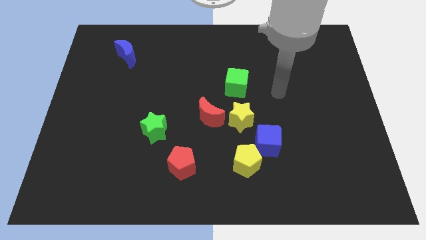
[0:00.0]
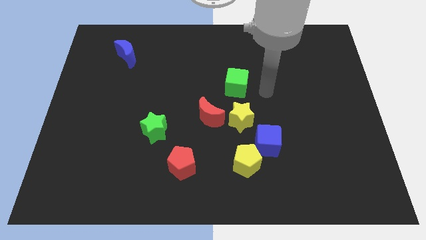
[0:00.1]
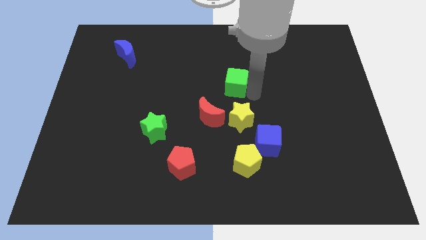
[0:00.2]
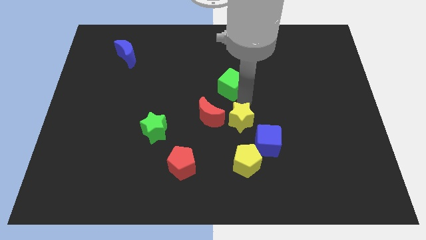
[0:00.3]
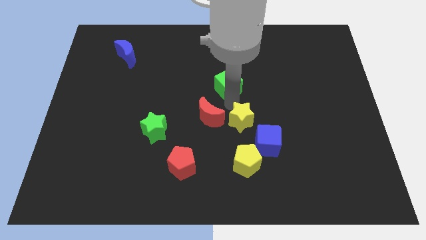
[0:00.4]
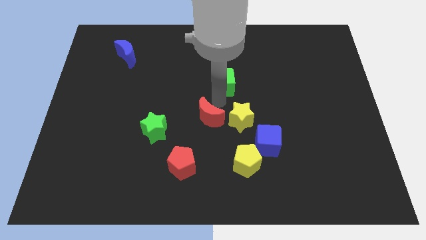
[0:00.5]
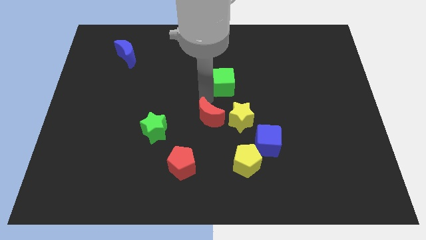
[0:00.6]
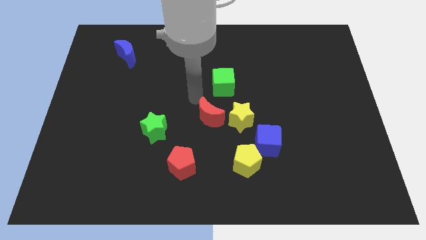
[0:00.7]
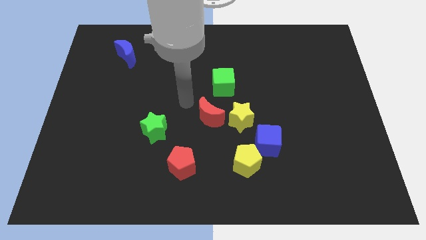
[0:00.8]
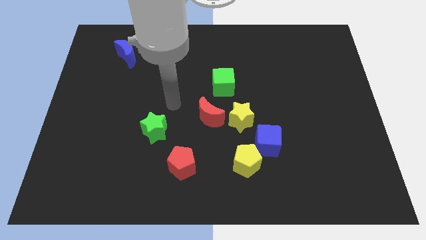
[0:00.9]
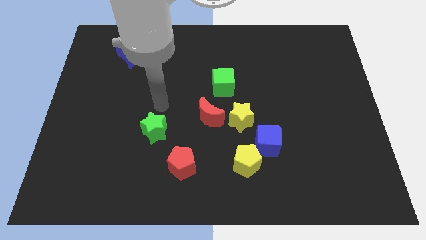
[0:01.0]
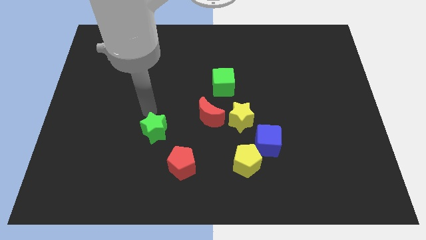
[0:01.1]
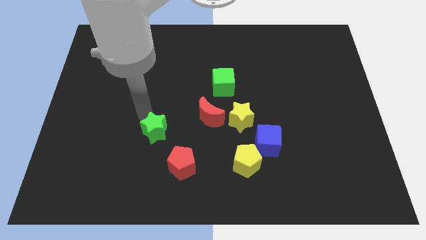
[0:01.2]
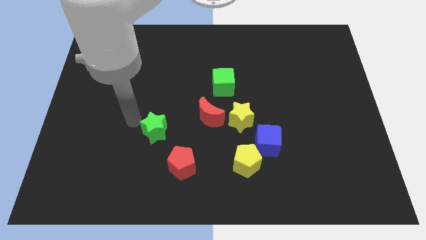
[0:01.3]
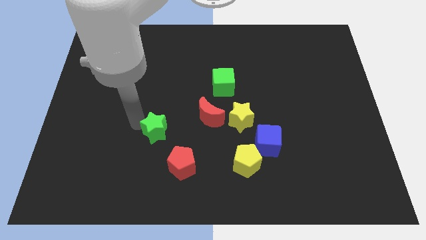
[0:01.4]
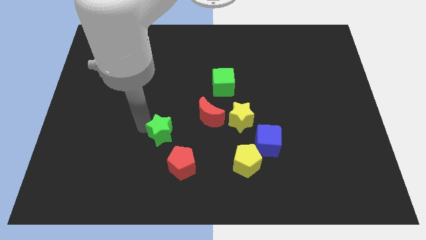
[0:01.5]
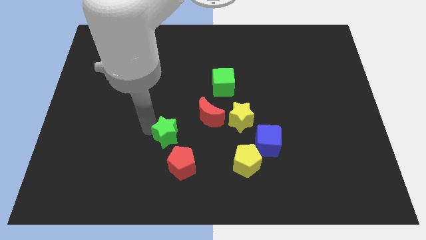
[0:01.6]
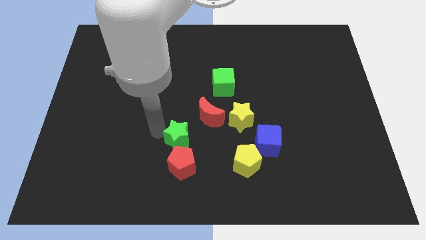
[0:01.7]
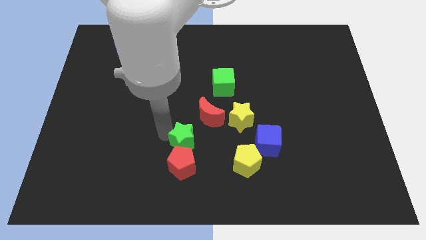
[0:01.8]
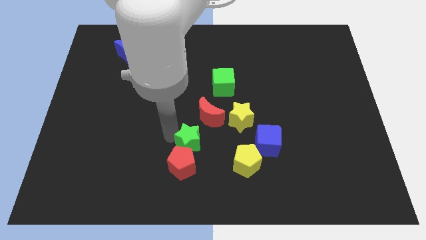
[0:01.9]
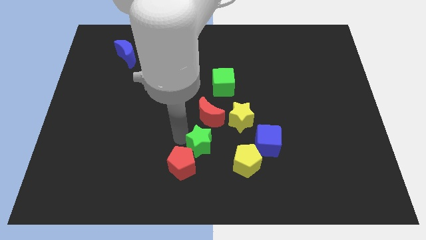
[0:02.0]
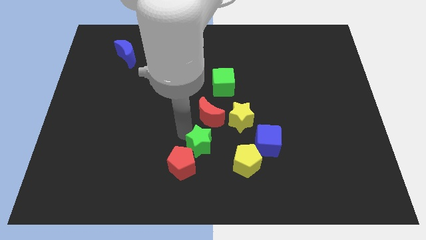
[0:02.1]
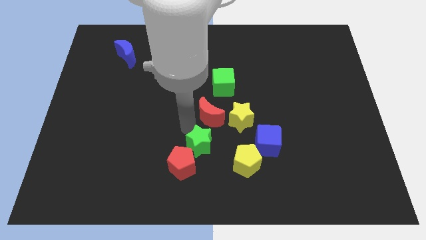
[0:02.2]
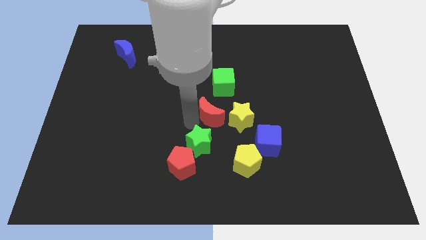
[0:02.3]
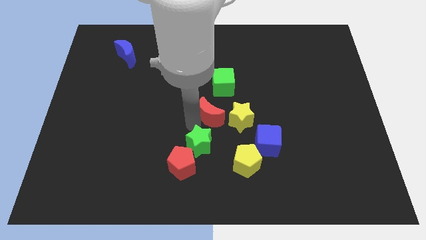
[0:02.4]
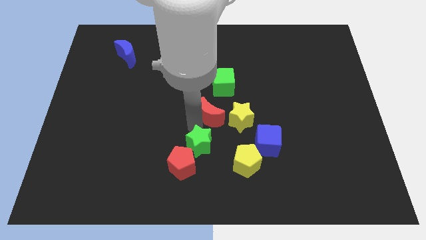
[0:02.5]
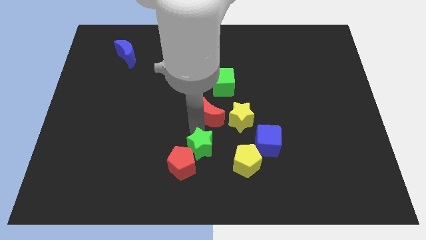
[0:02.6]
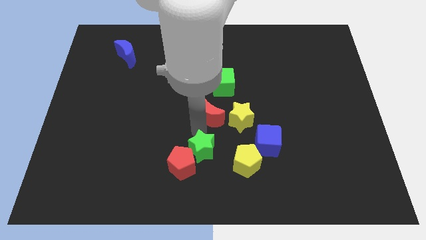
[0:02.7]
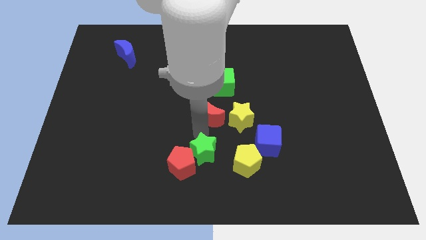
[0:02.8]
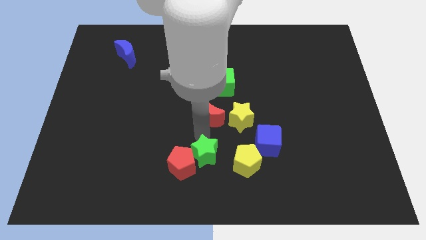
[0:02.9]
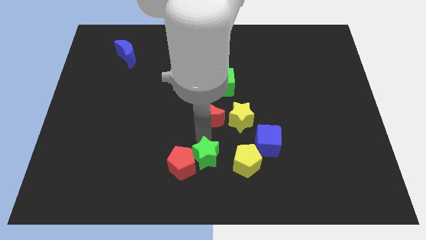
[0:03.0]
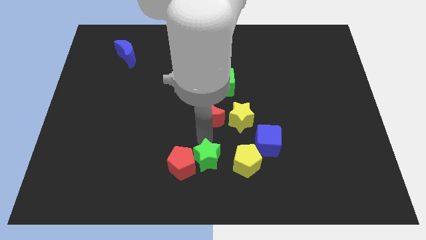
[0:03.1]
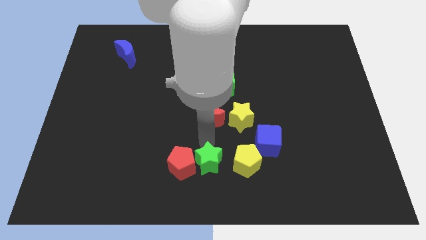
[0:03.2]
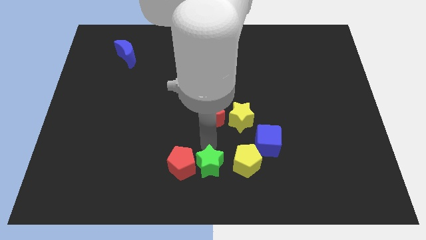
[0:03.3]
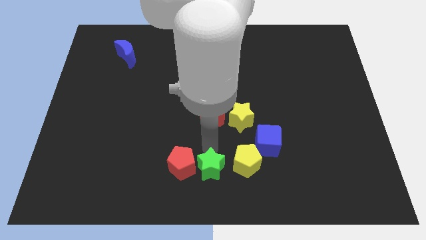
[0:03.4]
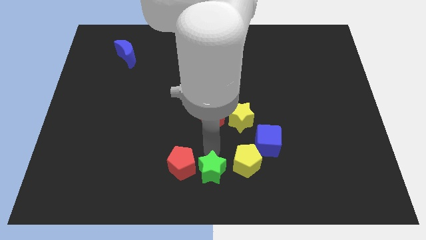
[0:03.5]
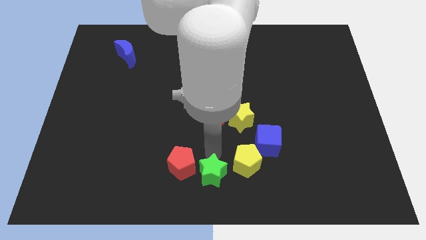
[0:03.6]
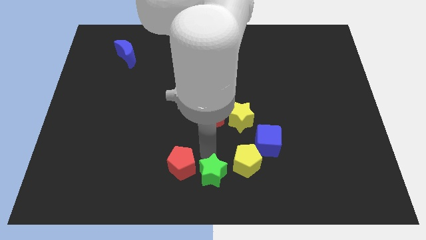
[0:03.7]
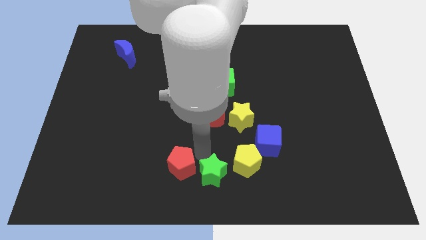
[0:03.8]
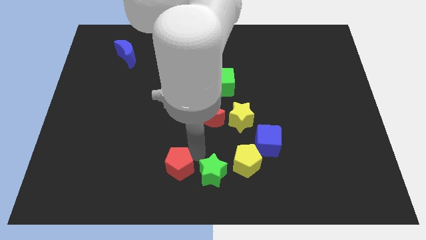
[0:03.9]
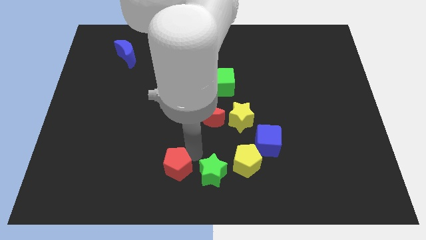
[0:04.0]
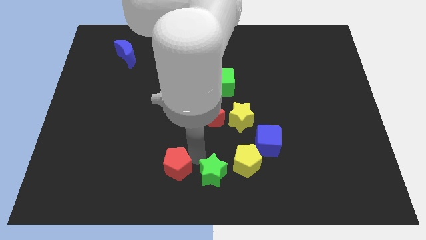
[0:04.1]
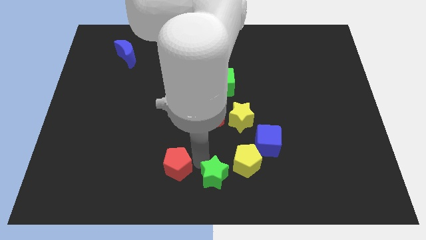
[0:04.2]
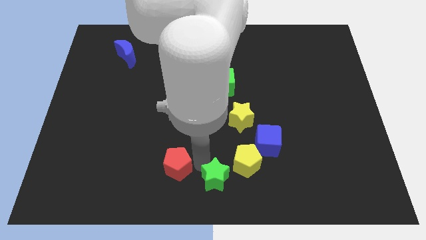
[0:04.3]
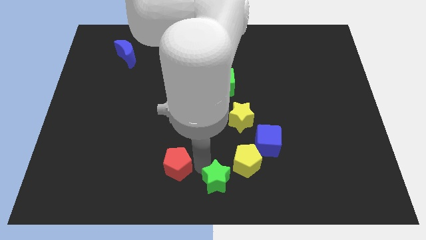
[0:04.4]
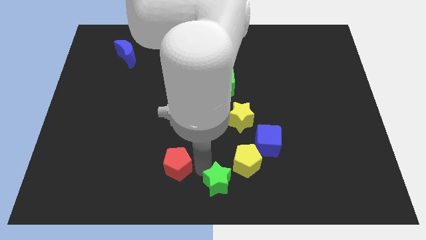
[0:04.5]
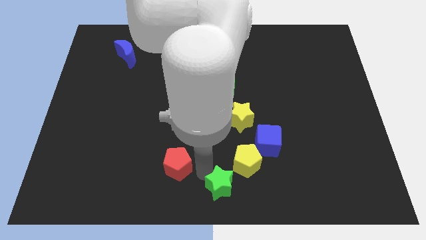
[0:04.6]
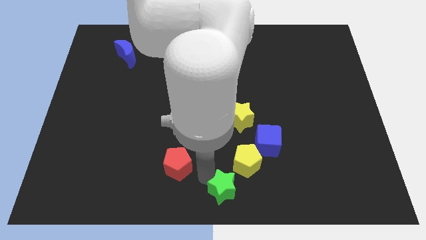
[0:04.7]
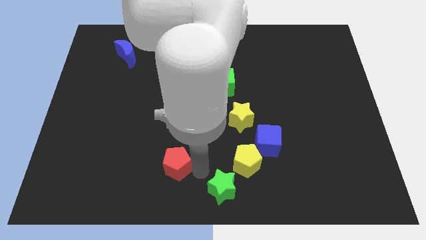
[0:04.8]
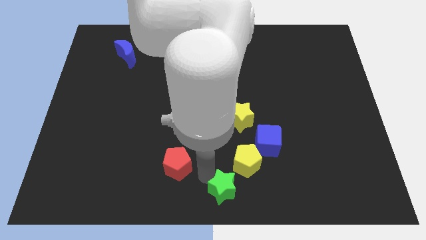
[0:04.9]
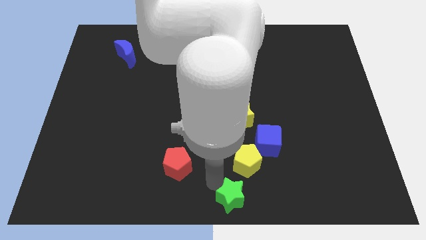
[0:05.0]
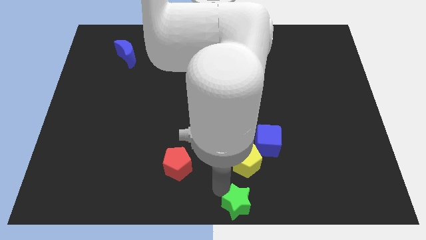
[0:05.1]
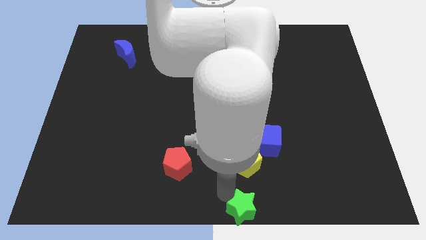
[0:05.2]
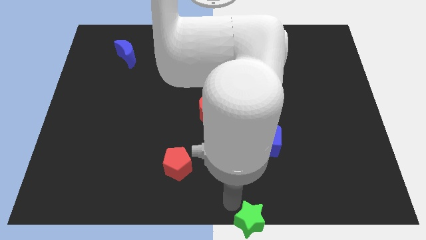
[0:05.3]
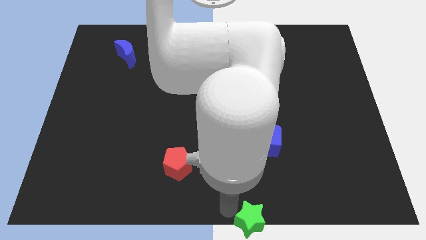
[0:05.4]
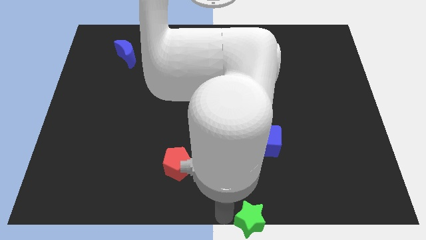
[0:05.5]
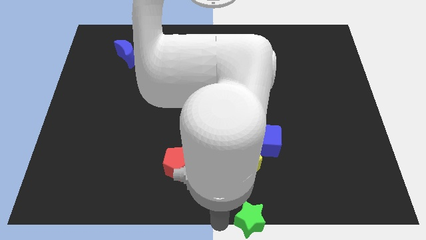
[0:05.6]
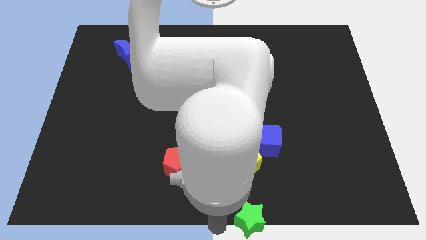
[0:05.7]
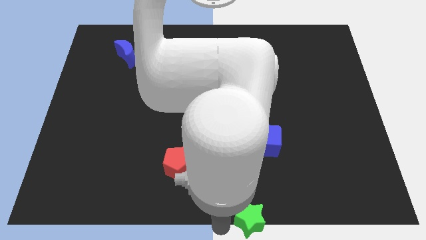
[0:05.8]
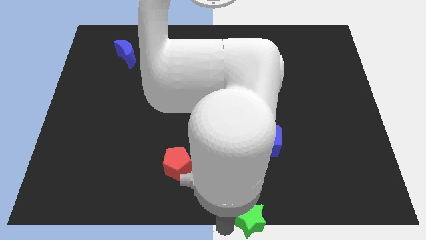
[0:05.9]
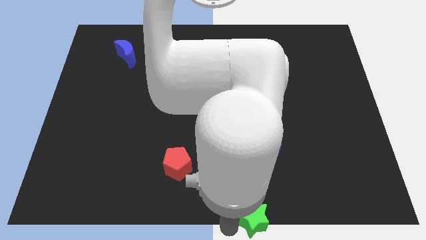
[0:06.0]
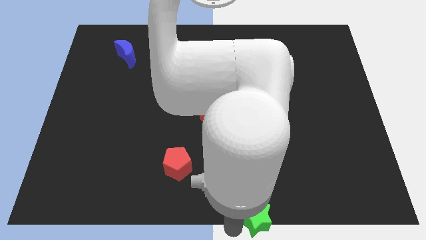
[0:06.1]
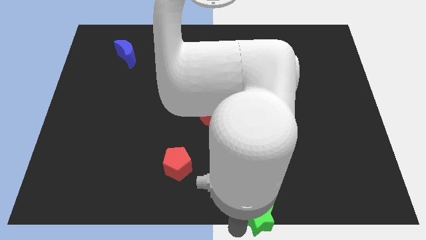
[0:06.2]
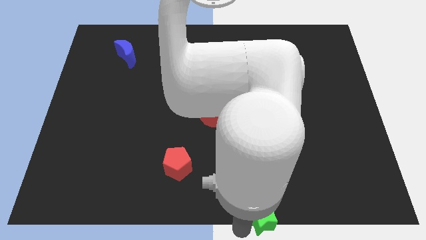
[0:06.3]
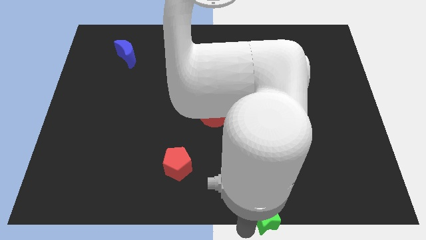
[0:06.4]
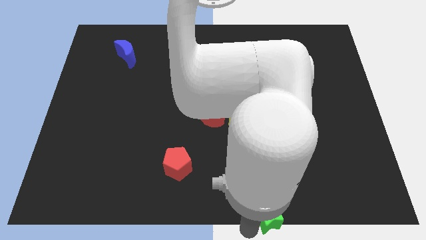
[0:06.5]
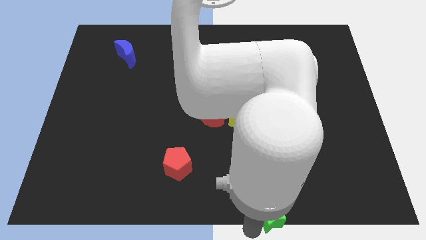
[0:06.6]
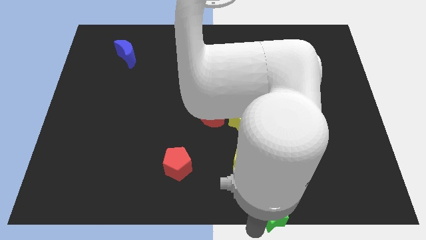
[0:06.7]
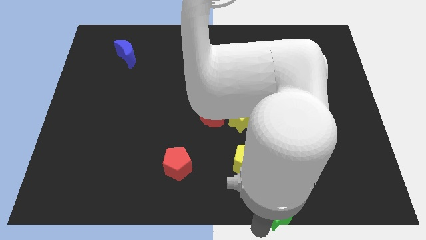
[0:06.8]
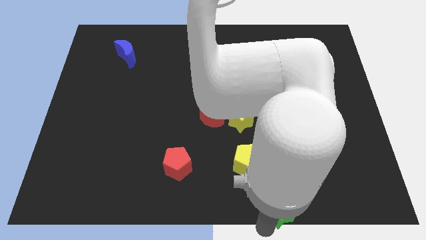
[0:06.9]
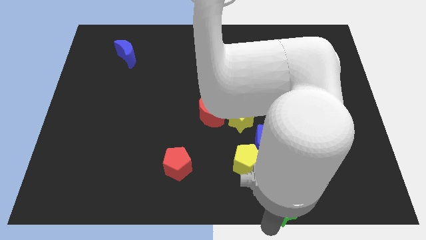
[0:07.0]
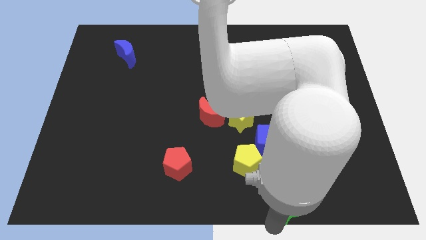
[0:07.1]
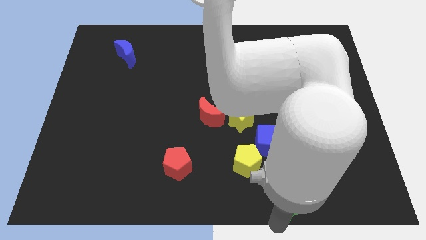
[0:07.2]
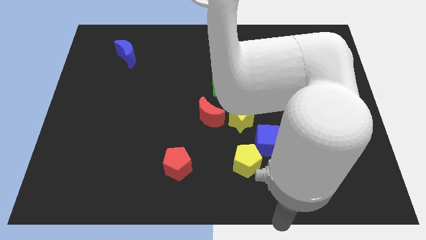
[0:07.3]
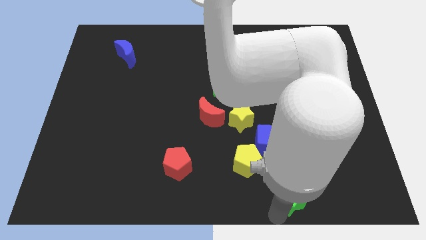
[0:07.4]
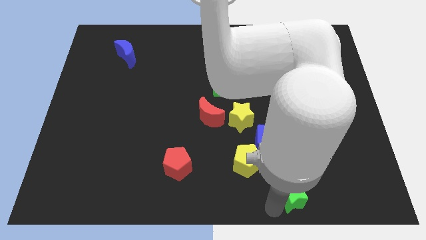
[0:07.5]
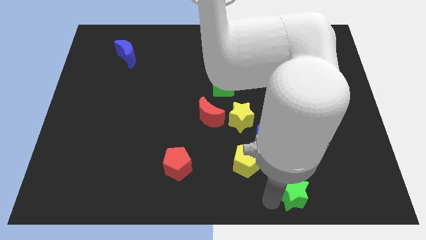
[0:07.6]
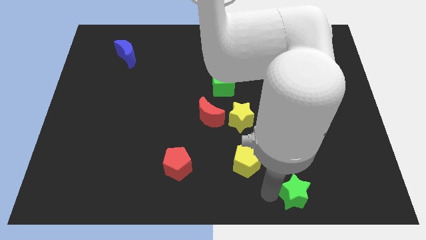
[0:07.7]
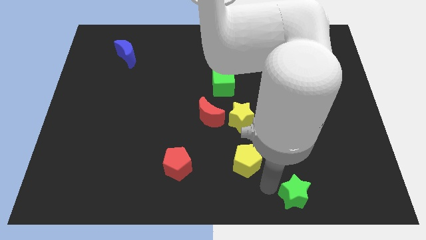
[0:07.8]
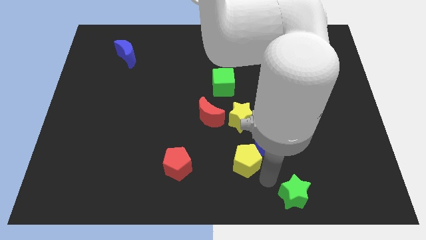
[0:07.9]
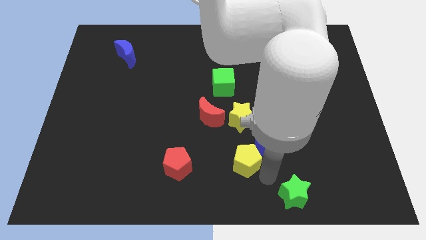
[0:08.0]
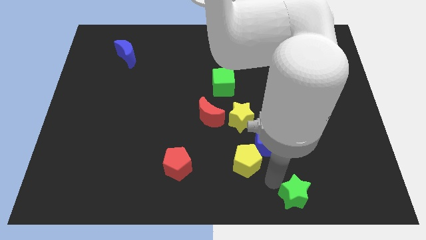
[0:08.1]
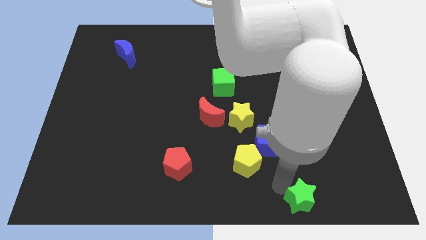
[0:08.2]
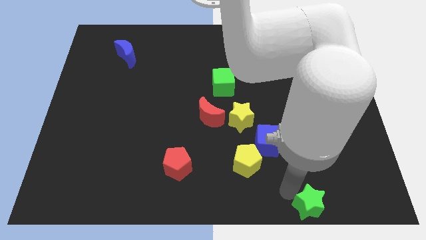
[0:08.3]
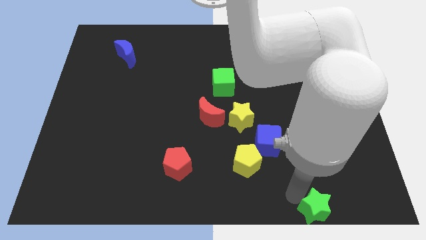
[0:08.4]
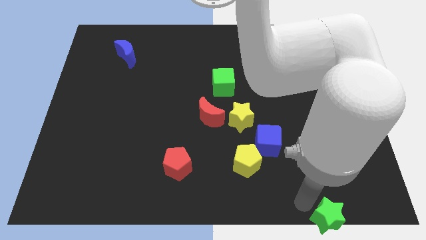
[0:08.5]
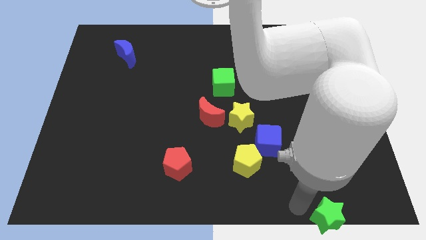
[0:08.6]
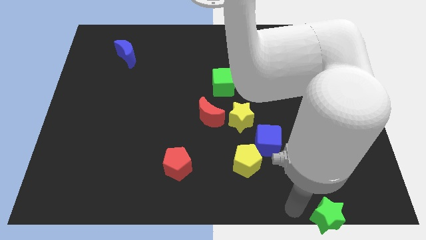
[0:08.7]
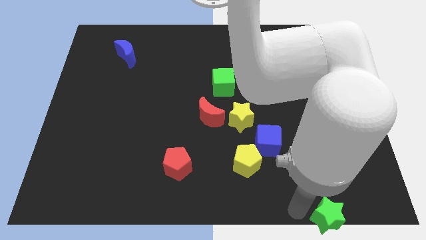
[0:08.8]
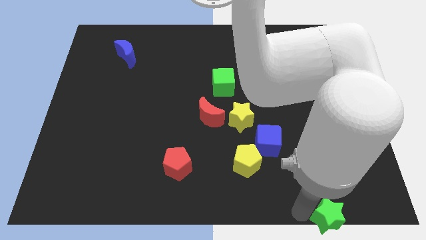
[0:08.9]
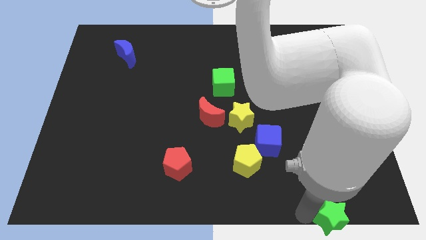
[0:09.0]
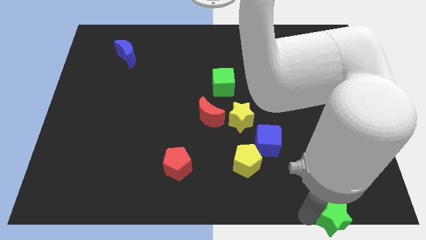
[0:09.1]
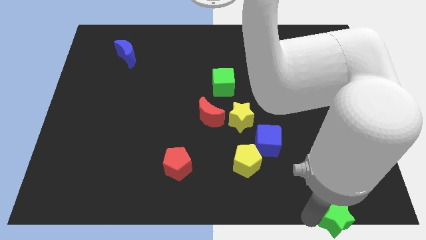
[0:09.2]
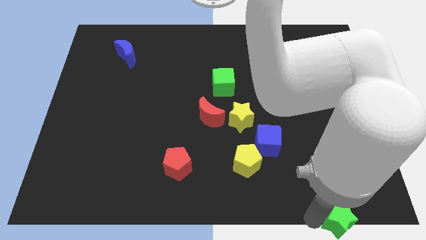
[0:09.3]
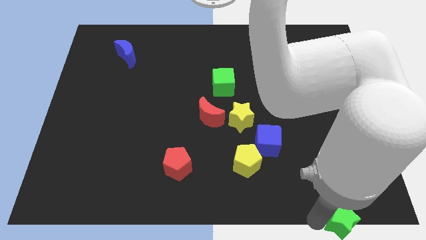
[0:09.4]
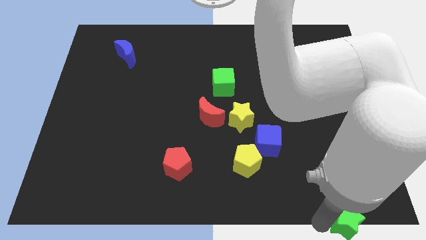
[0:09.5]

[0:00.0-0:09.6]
slide the green star to the lower right corner
